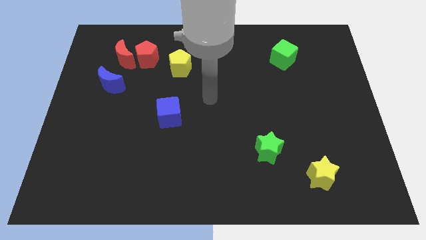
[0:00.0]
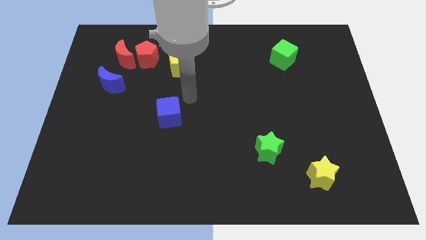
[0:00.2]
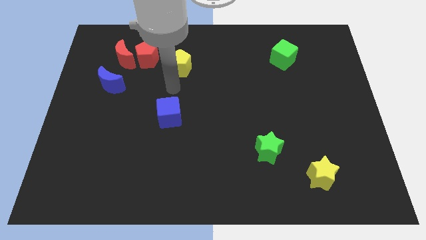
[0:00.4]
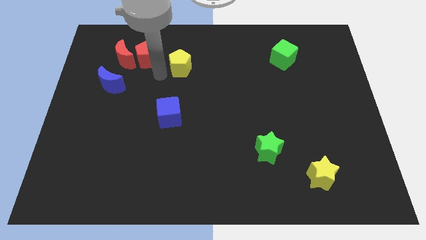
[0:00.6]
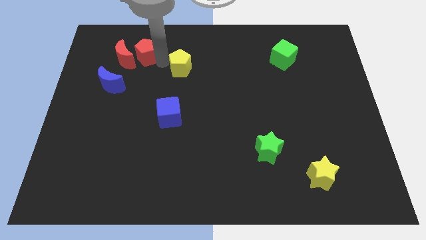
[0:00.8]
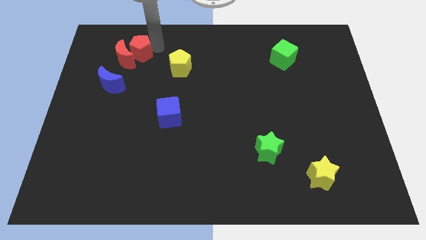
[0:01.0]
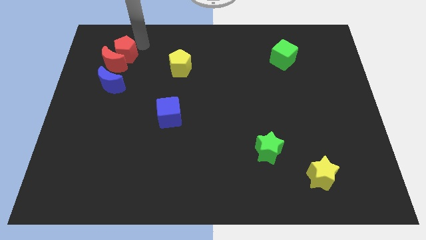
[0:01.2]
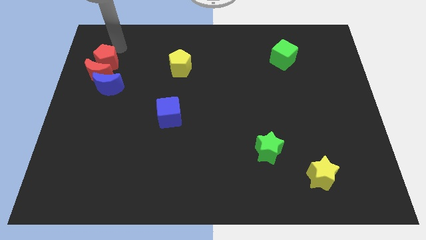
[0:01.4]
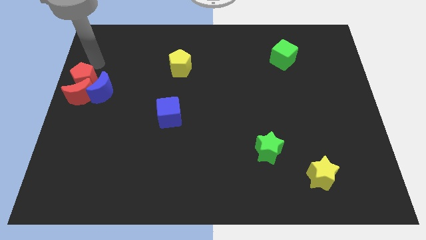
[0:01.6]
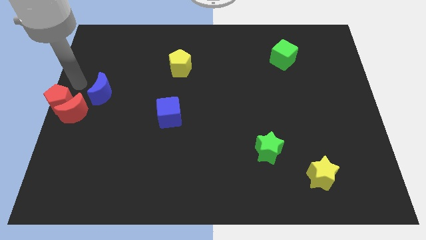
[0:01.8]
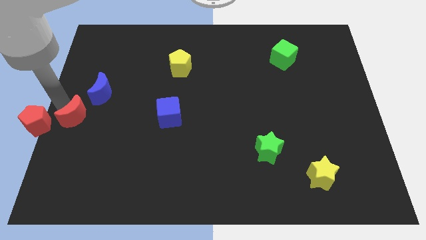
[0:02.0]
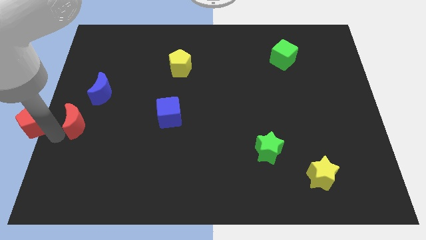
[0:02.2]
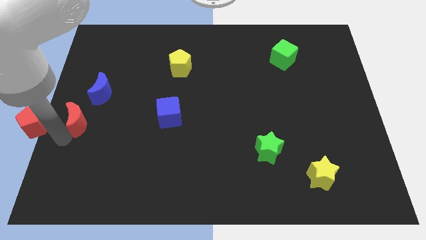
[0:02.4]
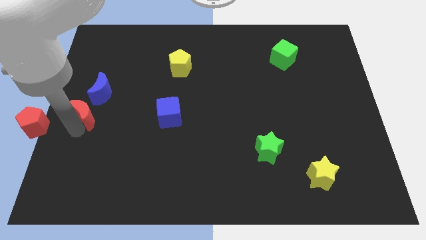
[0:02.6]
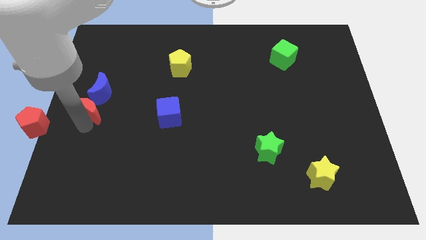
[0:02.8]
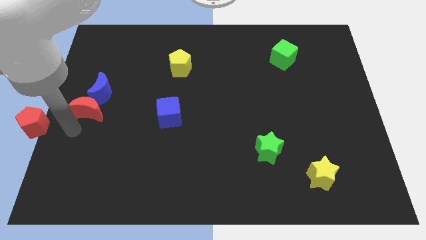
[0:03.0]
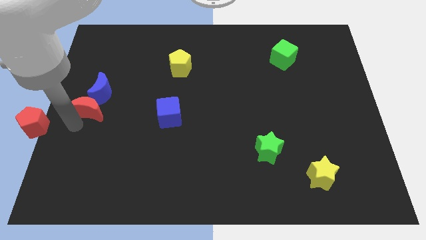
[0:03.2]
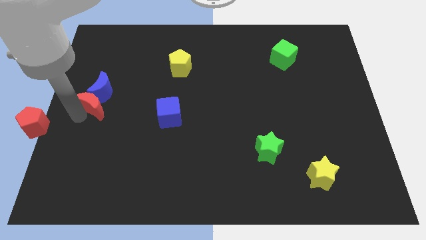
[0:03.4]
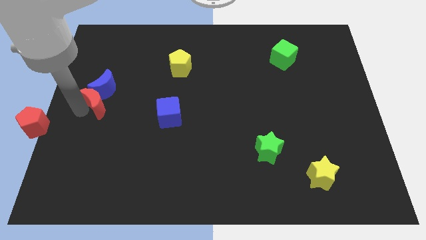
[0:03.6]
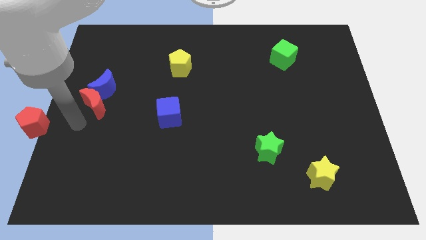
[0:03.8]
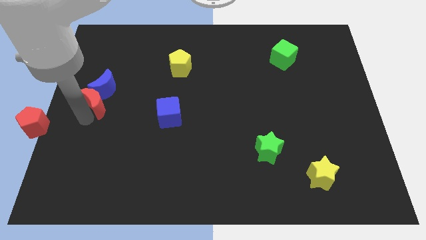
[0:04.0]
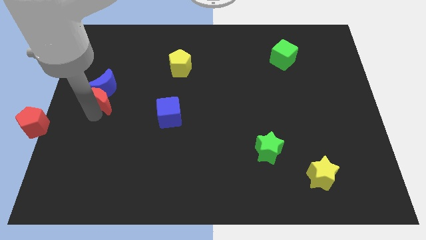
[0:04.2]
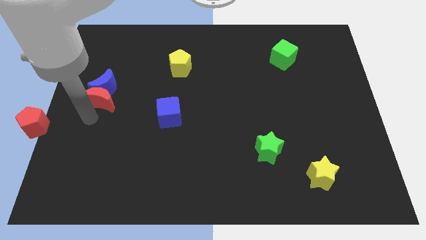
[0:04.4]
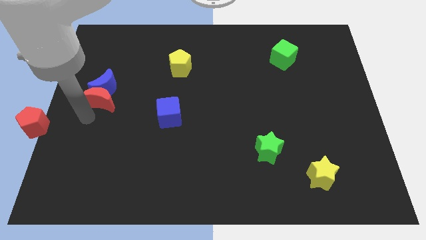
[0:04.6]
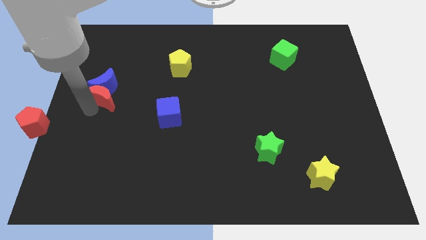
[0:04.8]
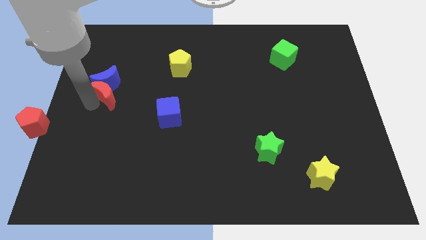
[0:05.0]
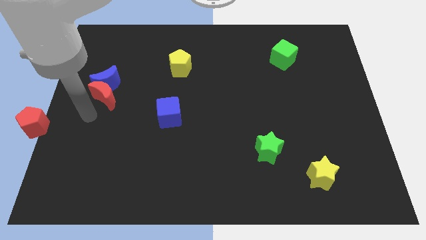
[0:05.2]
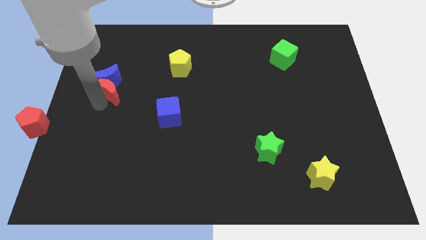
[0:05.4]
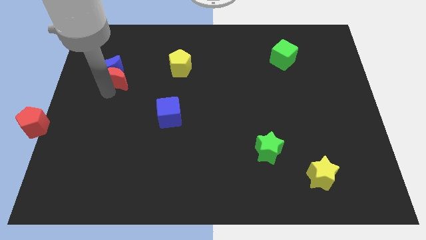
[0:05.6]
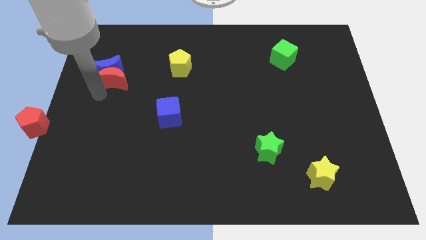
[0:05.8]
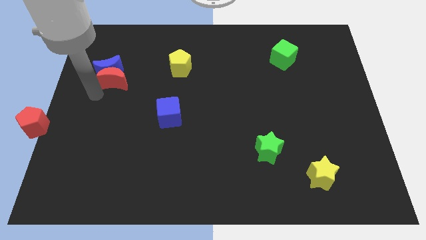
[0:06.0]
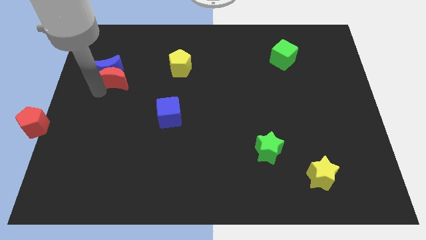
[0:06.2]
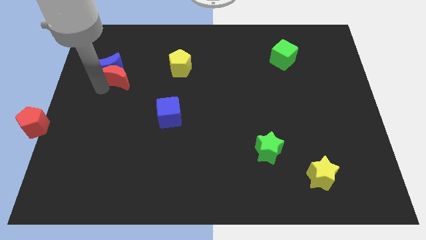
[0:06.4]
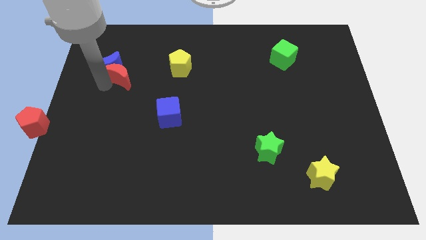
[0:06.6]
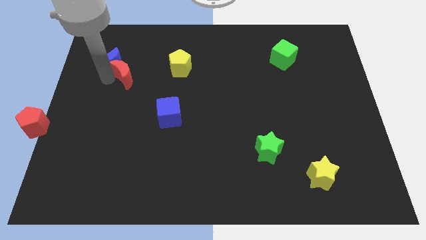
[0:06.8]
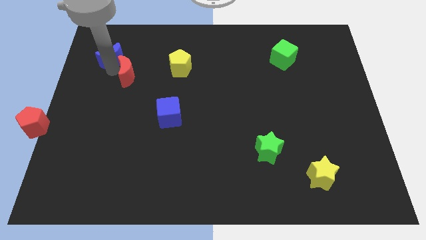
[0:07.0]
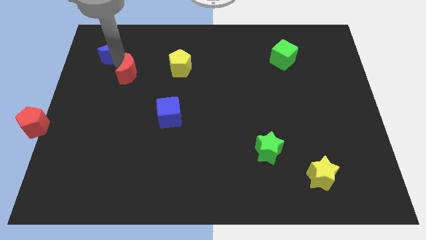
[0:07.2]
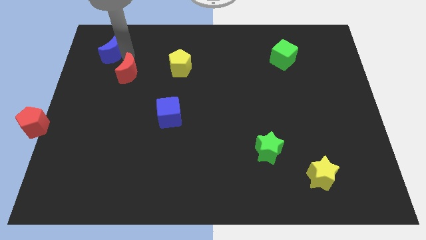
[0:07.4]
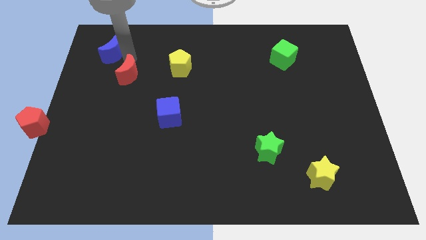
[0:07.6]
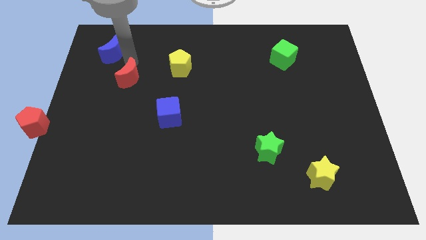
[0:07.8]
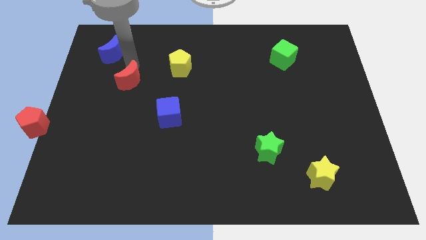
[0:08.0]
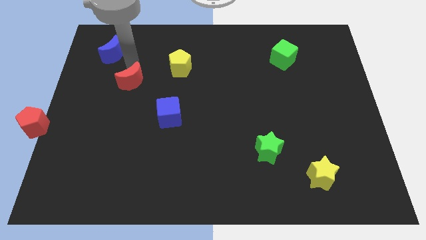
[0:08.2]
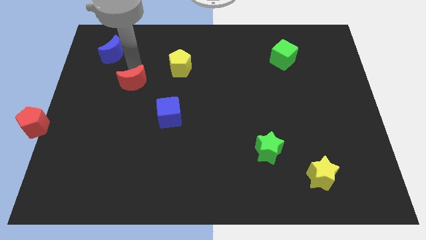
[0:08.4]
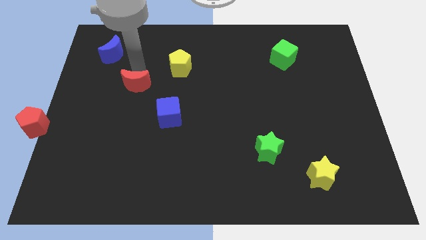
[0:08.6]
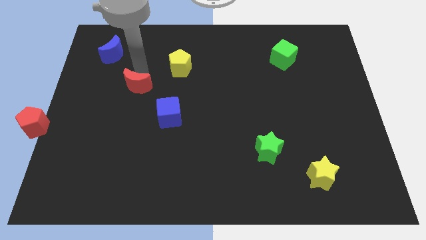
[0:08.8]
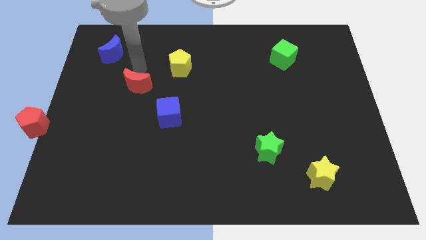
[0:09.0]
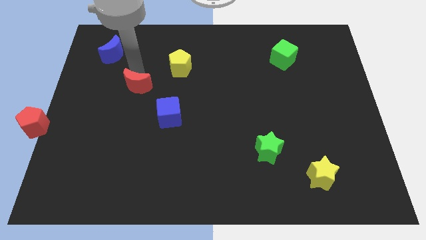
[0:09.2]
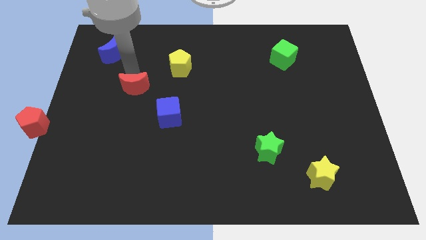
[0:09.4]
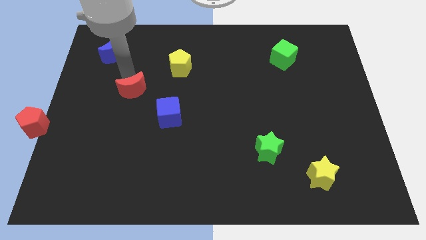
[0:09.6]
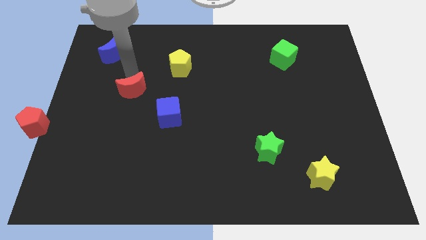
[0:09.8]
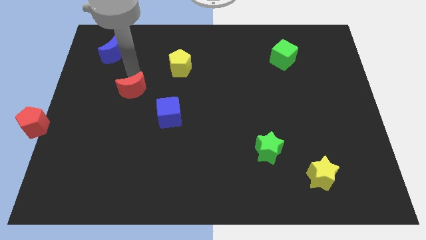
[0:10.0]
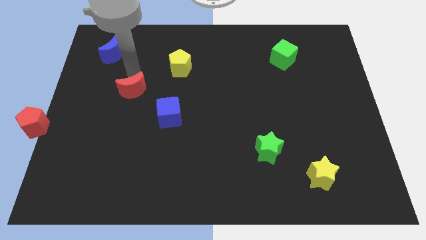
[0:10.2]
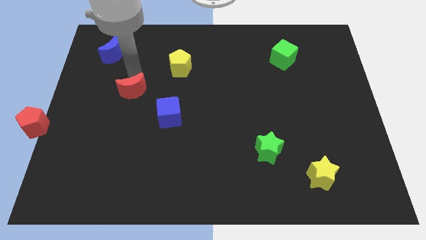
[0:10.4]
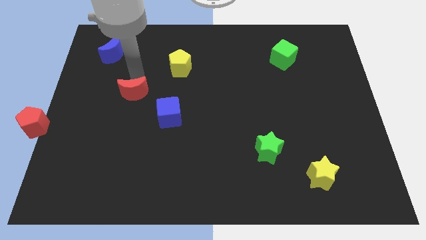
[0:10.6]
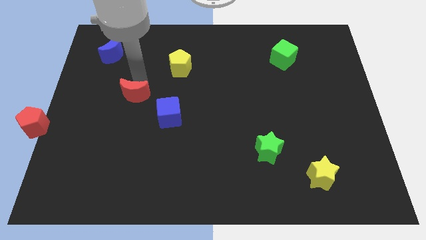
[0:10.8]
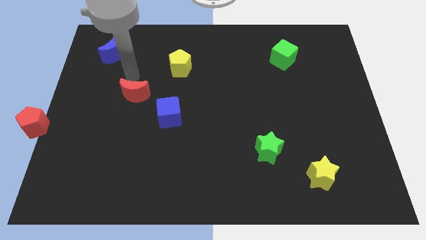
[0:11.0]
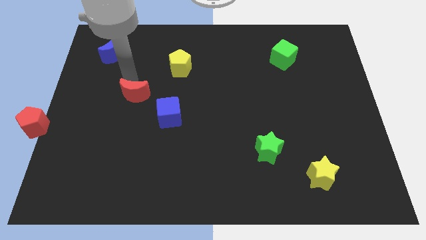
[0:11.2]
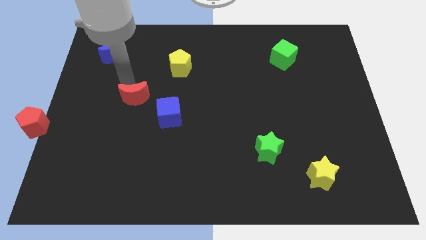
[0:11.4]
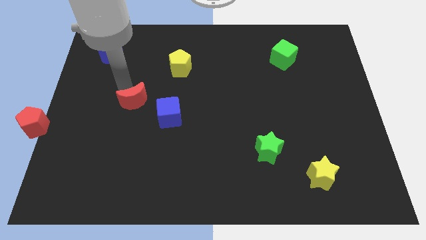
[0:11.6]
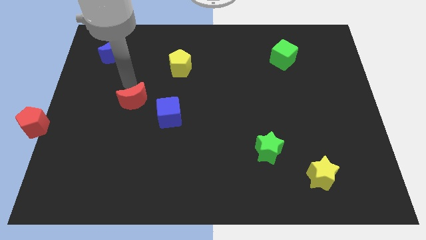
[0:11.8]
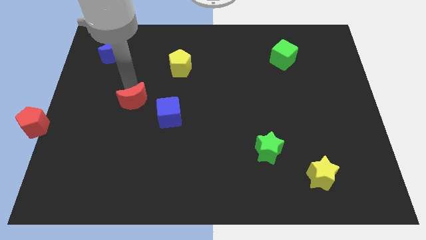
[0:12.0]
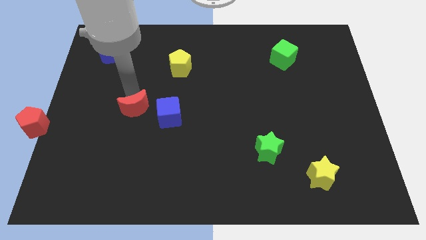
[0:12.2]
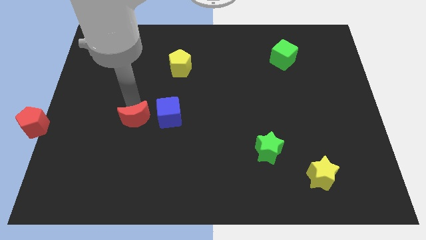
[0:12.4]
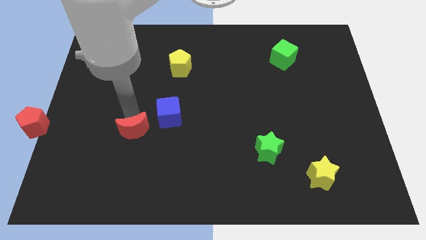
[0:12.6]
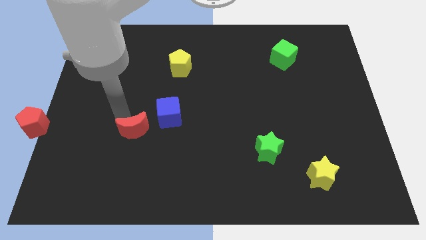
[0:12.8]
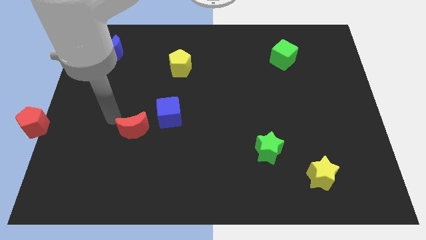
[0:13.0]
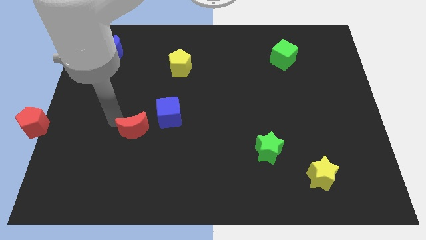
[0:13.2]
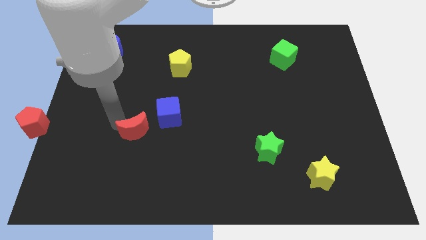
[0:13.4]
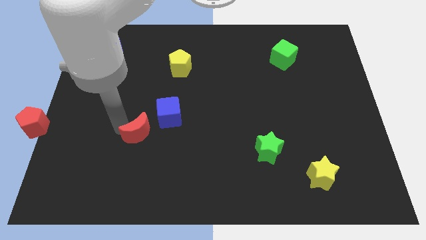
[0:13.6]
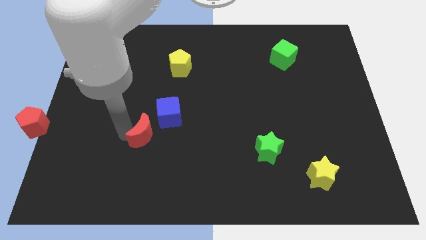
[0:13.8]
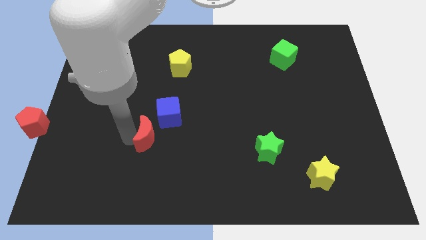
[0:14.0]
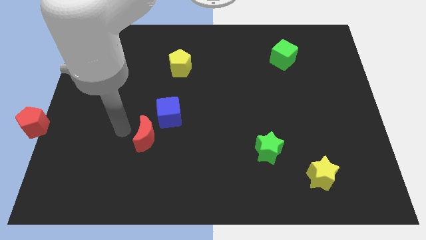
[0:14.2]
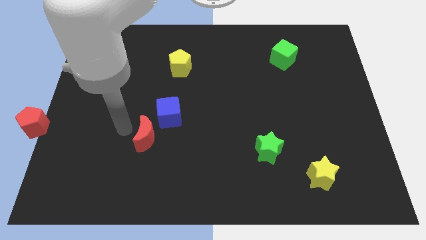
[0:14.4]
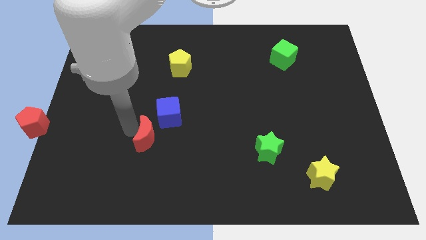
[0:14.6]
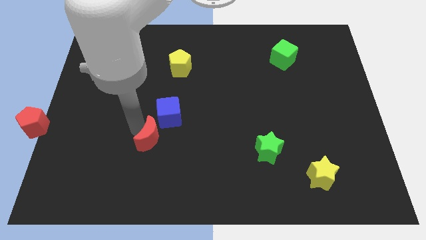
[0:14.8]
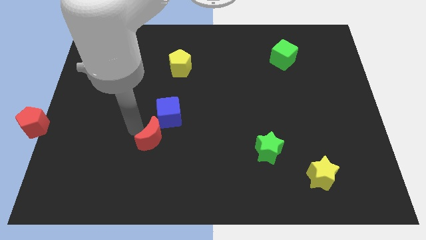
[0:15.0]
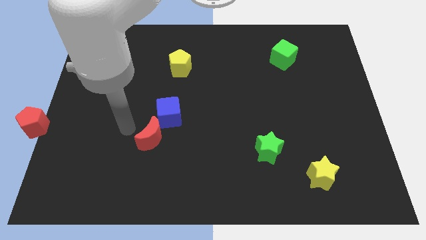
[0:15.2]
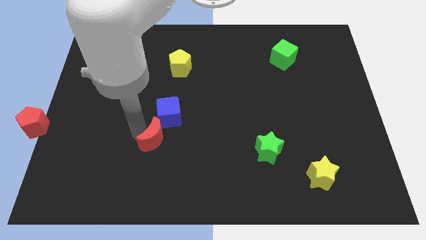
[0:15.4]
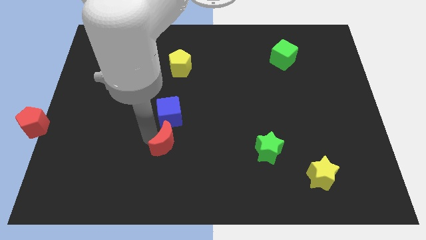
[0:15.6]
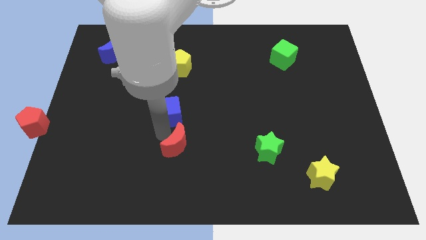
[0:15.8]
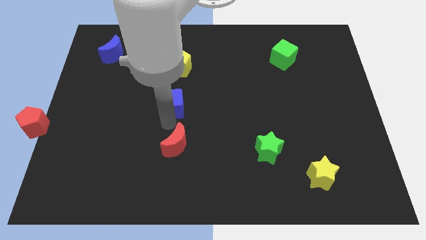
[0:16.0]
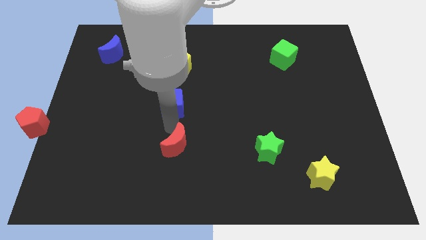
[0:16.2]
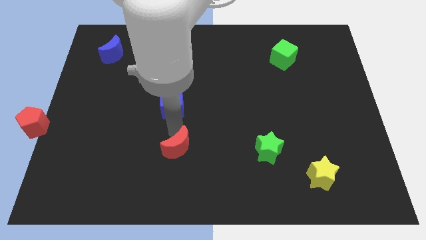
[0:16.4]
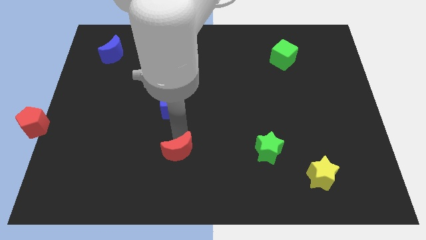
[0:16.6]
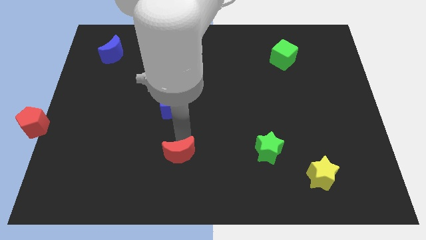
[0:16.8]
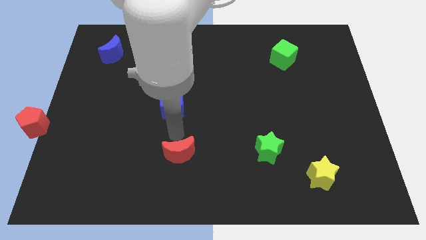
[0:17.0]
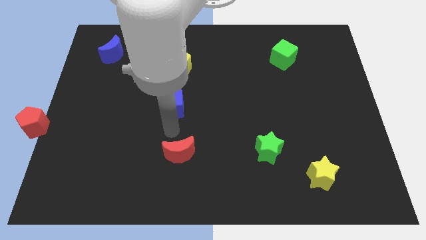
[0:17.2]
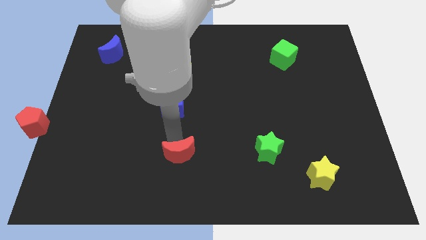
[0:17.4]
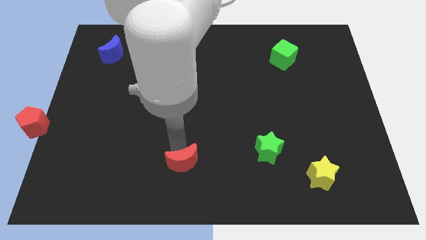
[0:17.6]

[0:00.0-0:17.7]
move the red moon to the bottom
